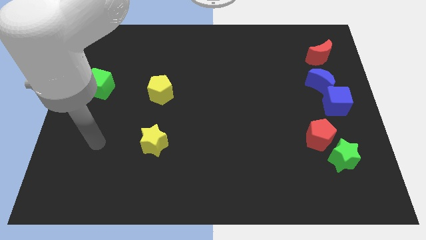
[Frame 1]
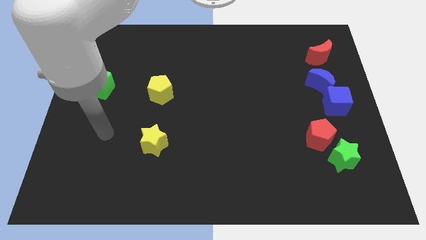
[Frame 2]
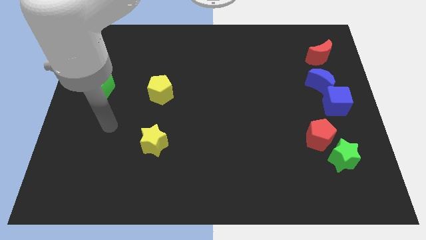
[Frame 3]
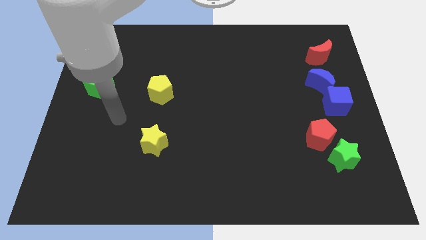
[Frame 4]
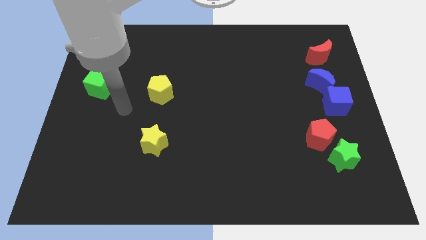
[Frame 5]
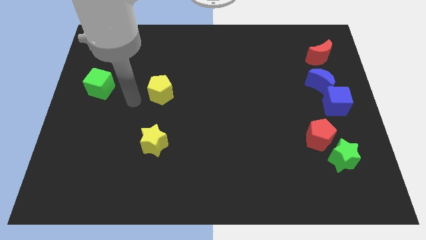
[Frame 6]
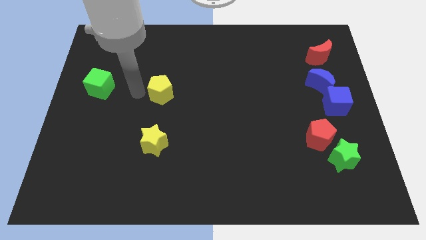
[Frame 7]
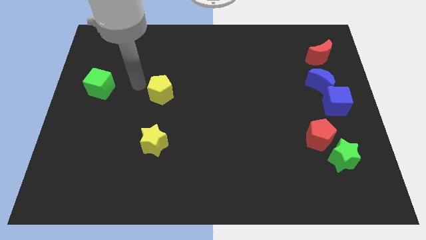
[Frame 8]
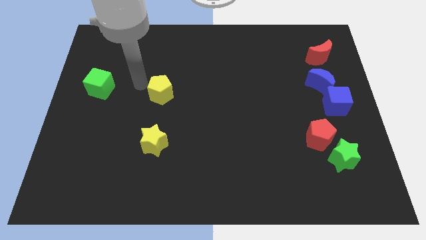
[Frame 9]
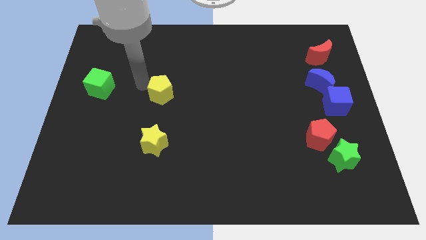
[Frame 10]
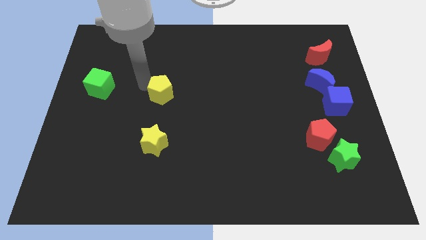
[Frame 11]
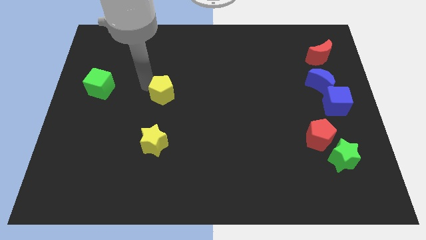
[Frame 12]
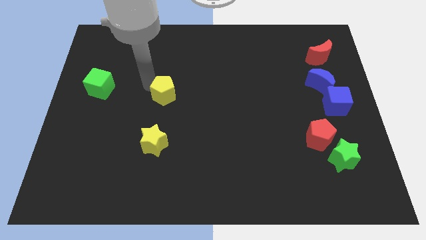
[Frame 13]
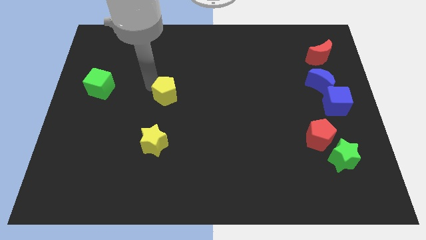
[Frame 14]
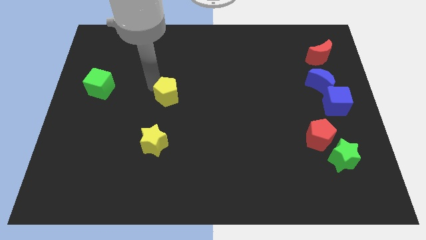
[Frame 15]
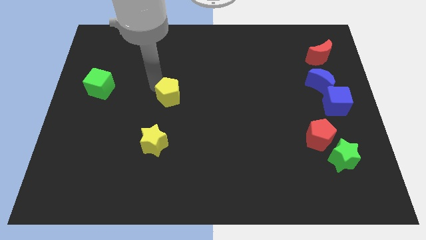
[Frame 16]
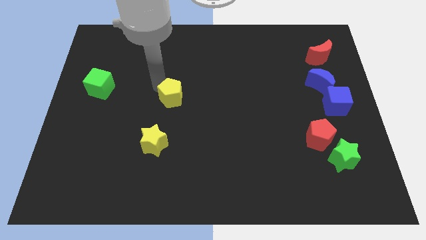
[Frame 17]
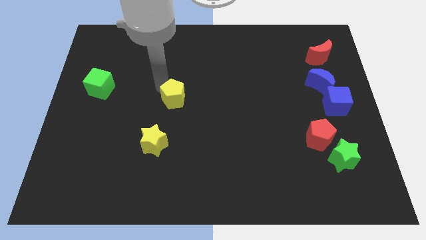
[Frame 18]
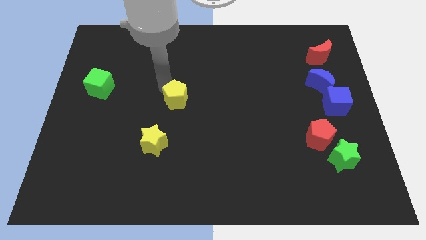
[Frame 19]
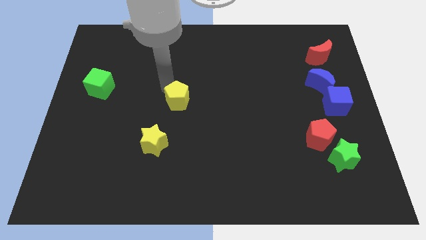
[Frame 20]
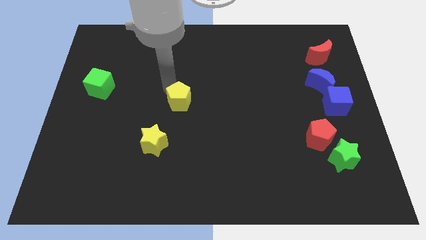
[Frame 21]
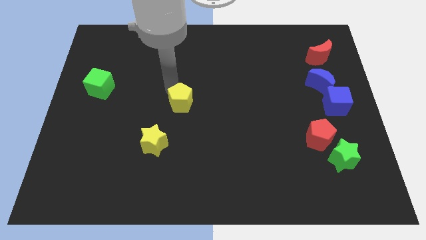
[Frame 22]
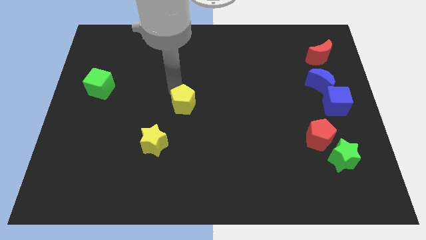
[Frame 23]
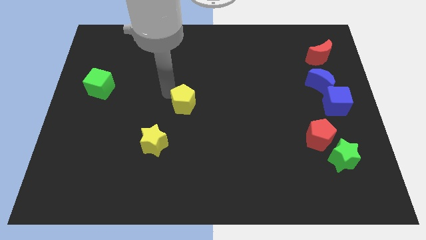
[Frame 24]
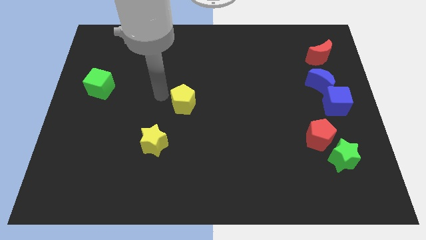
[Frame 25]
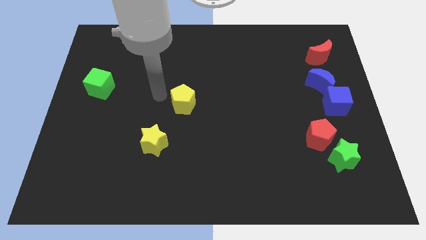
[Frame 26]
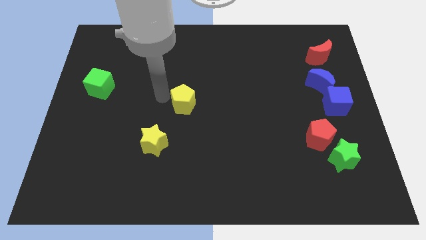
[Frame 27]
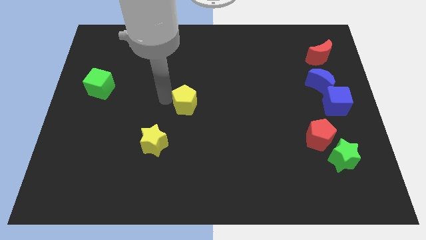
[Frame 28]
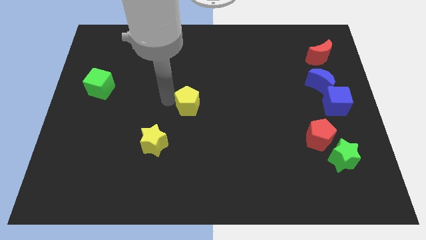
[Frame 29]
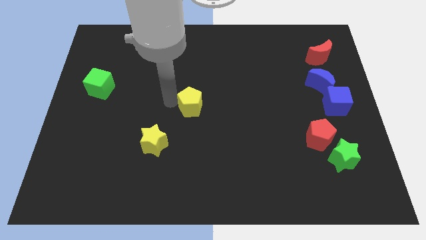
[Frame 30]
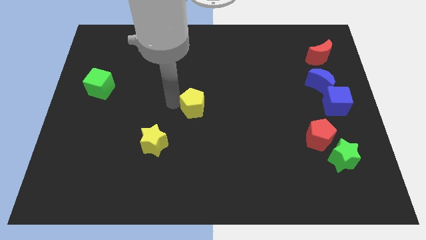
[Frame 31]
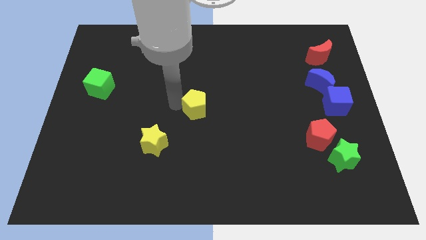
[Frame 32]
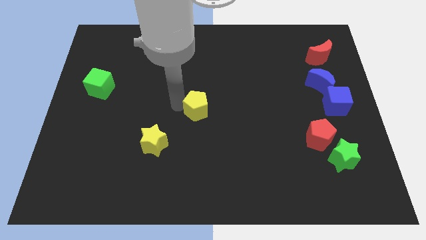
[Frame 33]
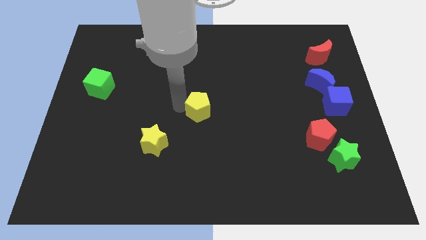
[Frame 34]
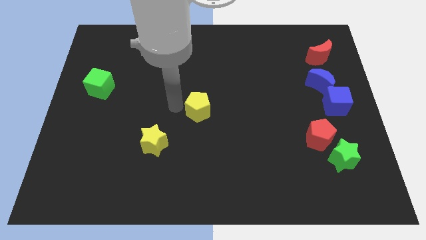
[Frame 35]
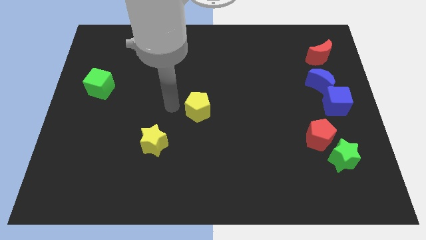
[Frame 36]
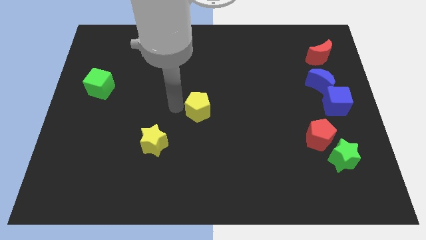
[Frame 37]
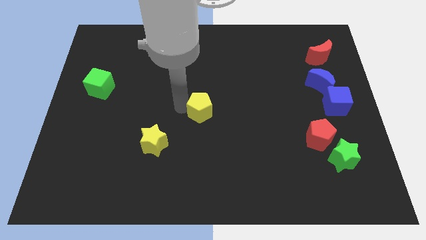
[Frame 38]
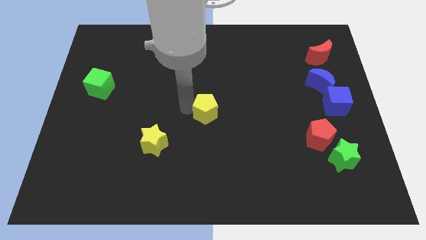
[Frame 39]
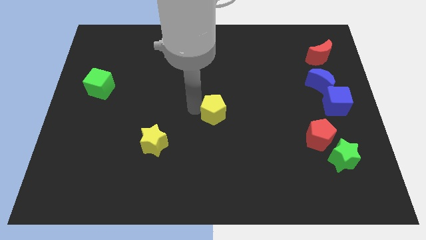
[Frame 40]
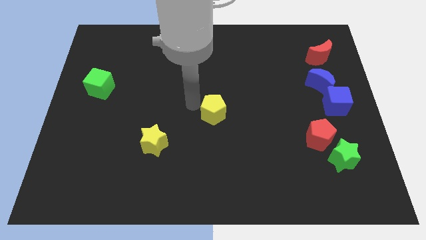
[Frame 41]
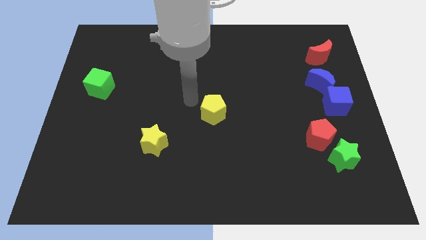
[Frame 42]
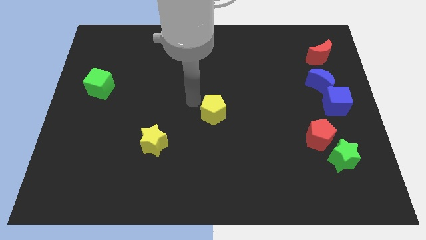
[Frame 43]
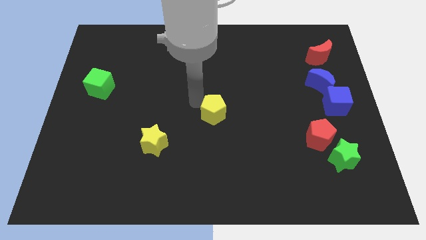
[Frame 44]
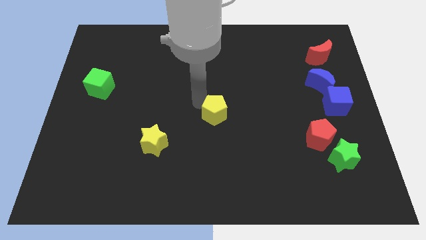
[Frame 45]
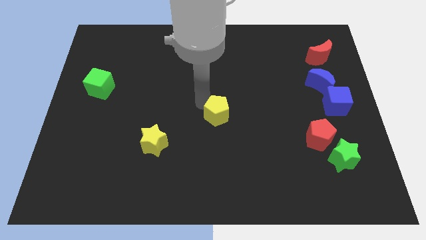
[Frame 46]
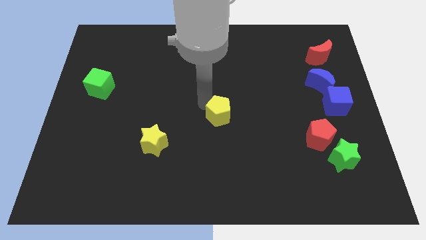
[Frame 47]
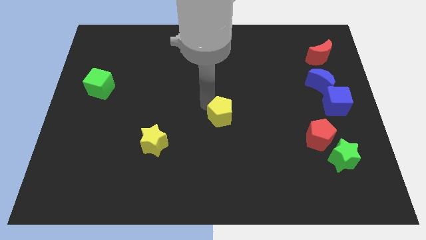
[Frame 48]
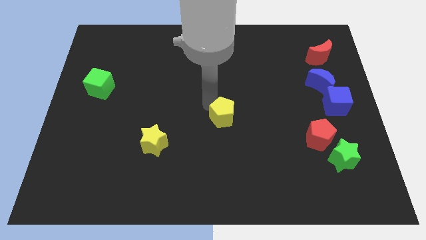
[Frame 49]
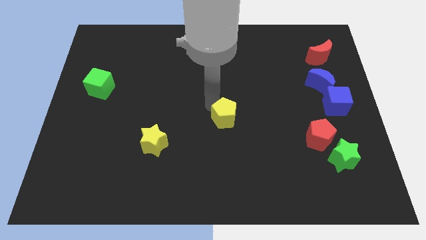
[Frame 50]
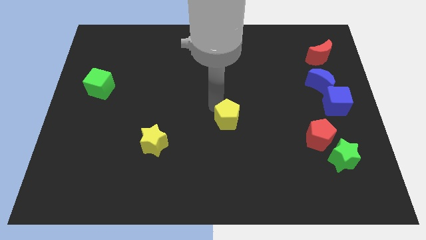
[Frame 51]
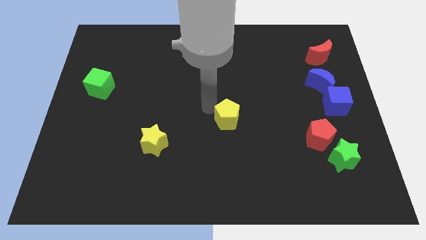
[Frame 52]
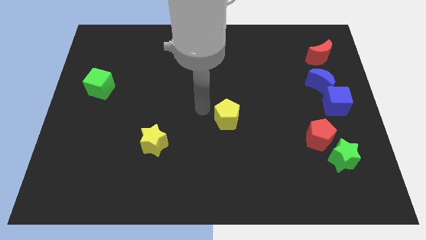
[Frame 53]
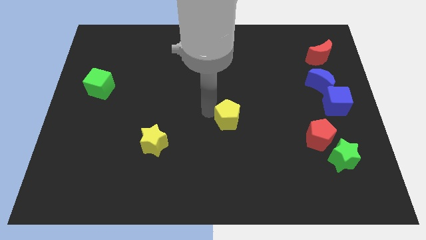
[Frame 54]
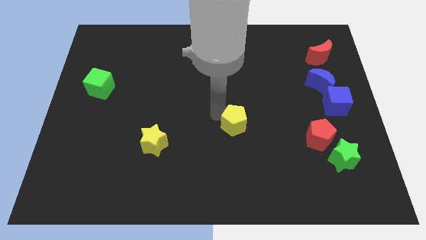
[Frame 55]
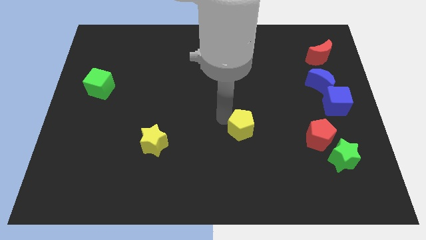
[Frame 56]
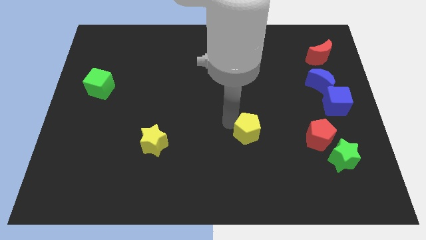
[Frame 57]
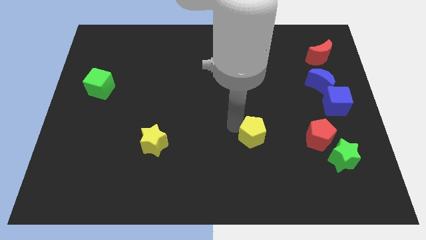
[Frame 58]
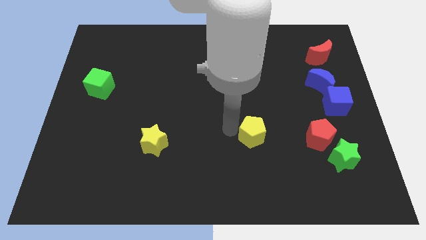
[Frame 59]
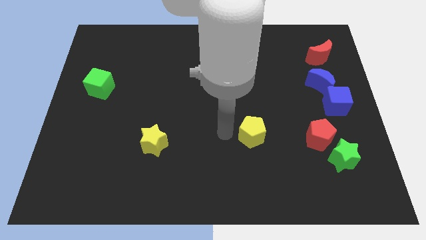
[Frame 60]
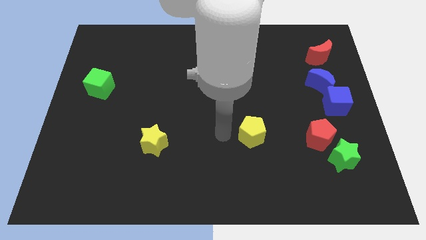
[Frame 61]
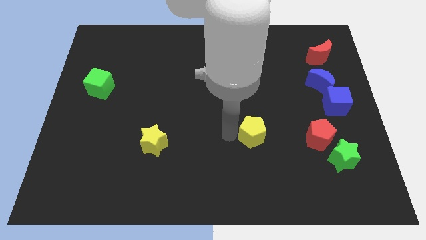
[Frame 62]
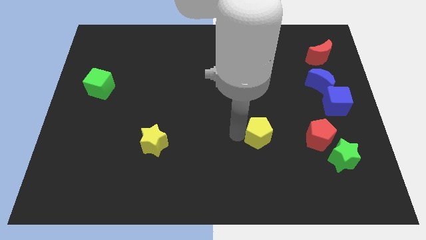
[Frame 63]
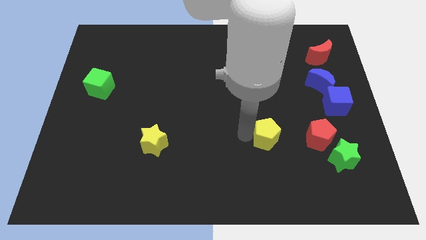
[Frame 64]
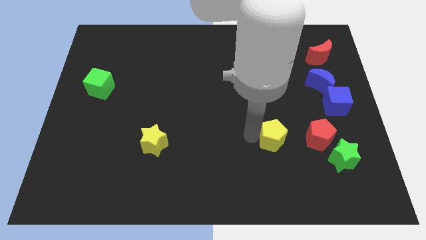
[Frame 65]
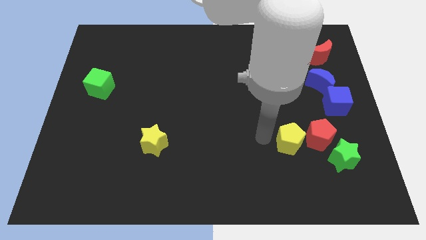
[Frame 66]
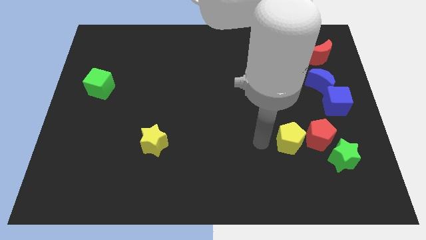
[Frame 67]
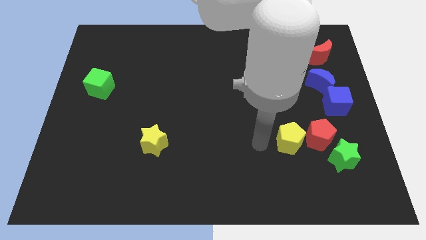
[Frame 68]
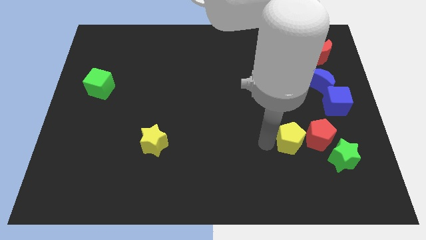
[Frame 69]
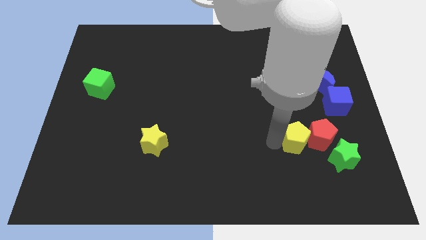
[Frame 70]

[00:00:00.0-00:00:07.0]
move the yellow pentagon towards the red pentagon

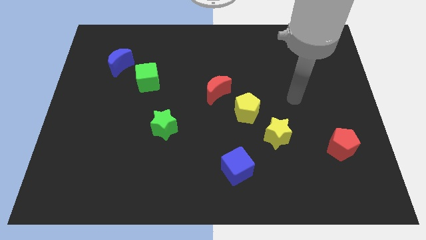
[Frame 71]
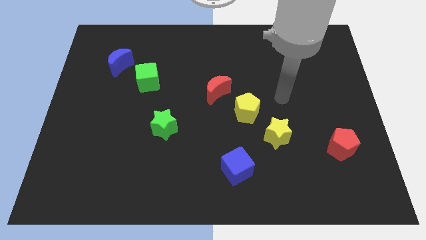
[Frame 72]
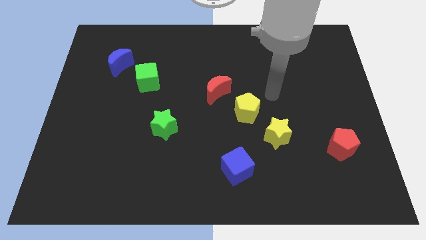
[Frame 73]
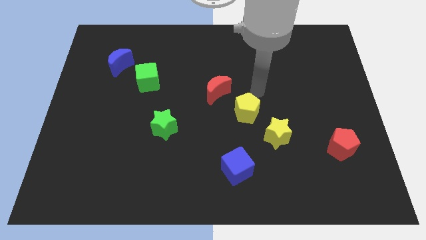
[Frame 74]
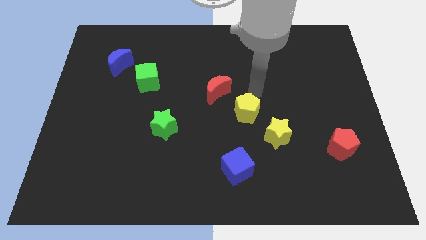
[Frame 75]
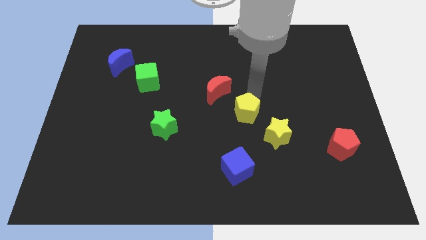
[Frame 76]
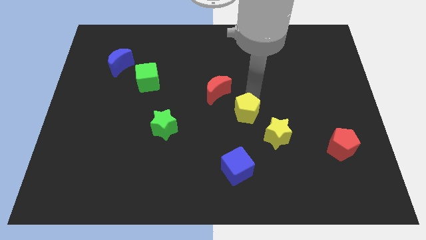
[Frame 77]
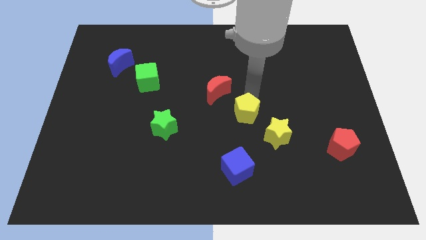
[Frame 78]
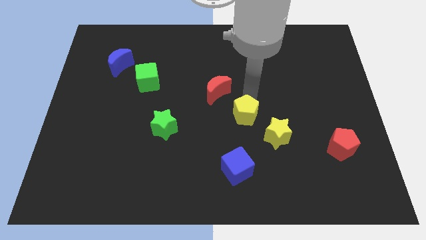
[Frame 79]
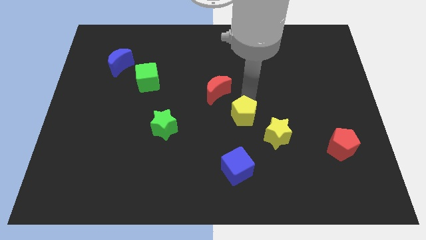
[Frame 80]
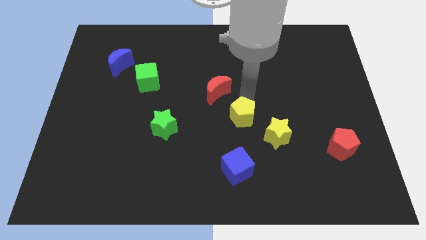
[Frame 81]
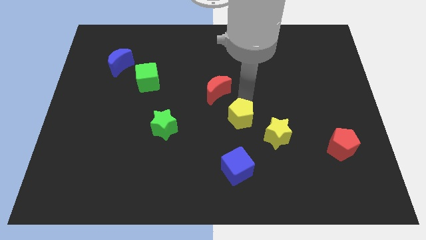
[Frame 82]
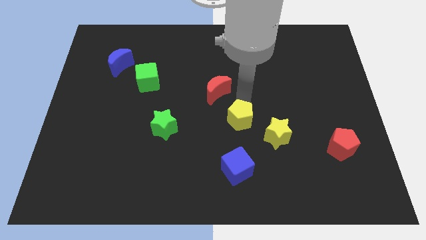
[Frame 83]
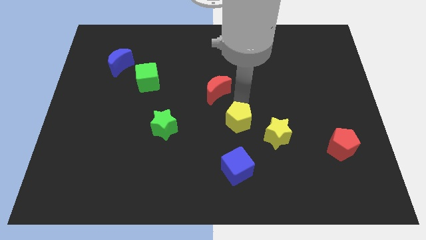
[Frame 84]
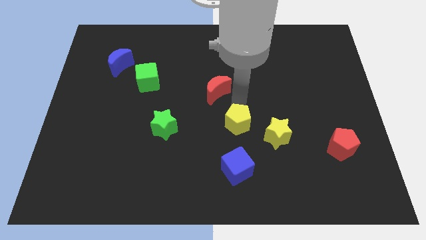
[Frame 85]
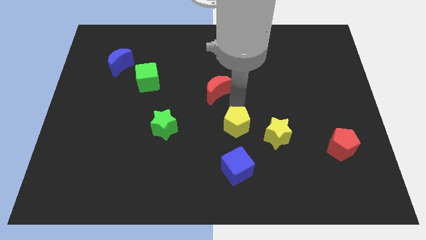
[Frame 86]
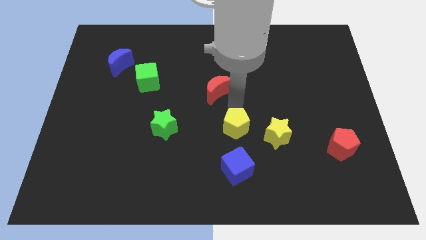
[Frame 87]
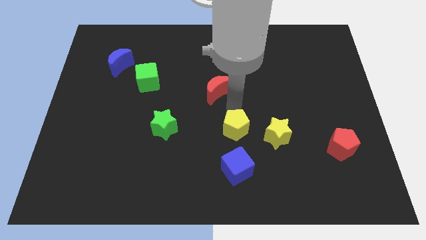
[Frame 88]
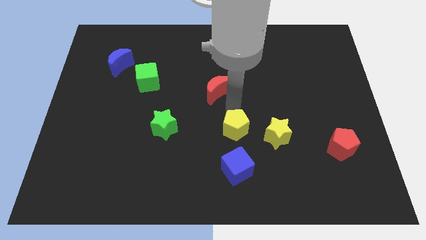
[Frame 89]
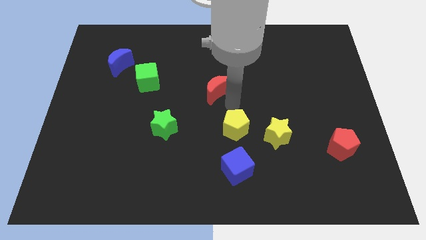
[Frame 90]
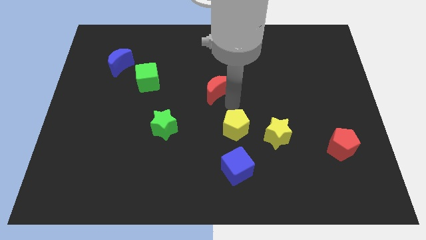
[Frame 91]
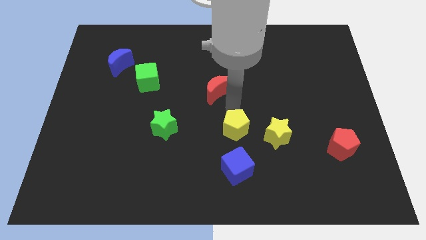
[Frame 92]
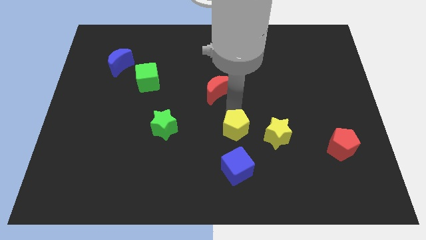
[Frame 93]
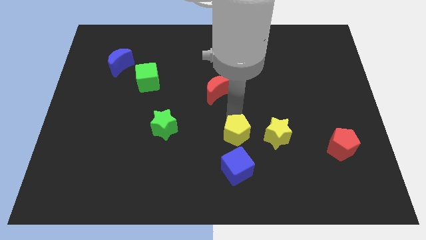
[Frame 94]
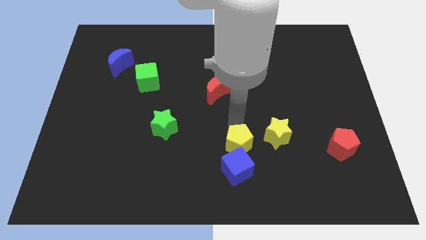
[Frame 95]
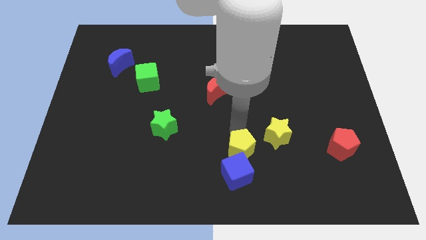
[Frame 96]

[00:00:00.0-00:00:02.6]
push the yellow pentagon to the blue cube
